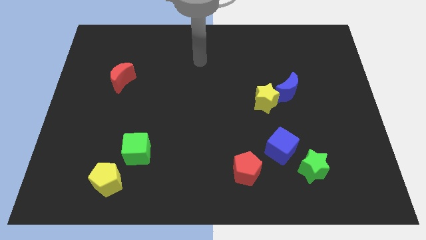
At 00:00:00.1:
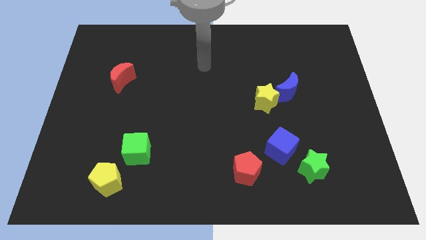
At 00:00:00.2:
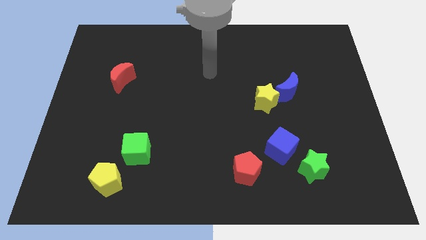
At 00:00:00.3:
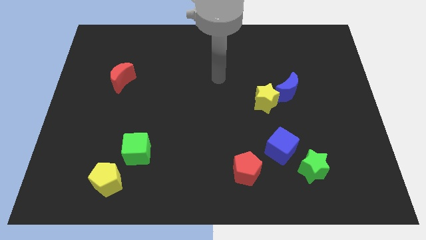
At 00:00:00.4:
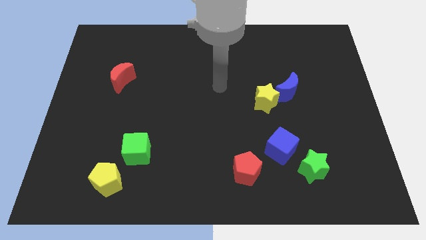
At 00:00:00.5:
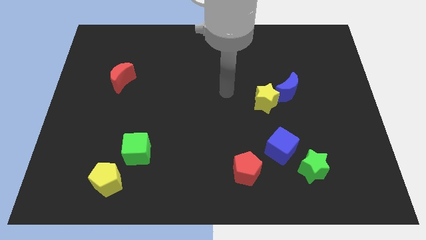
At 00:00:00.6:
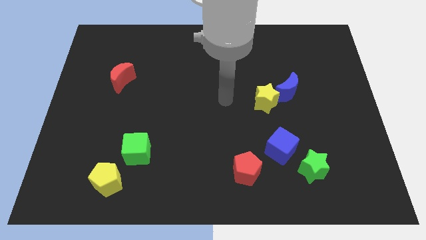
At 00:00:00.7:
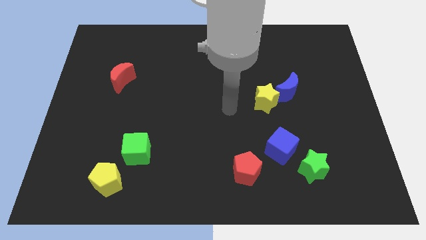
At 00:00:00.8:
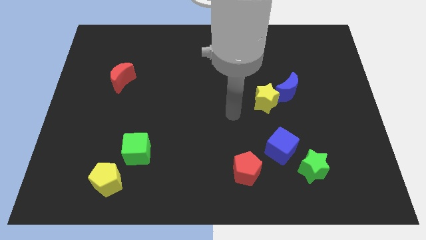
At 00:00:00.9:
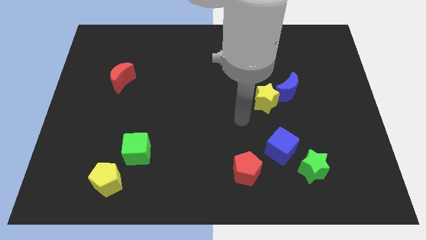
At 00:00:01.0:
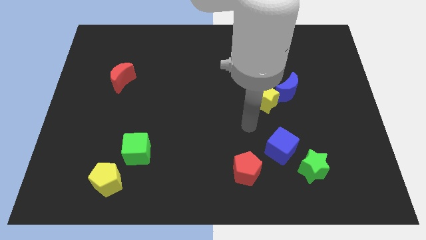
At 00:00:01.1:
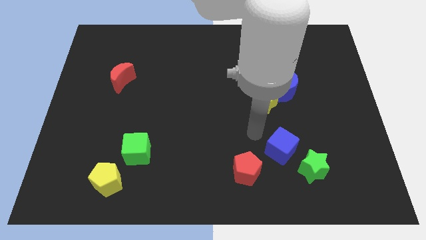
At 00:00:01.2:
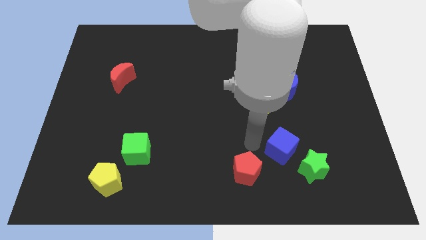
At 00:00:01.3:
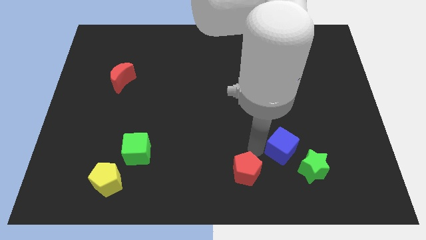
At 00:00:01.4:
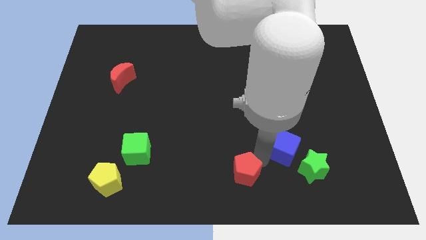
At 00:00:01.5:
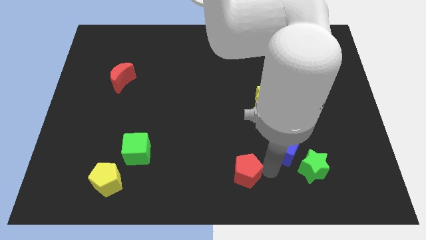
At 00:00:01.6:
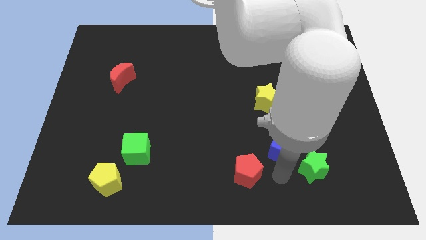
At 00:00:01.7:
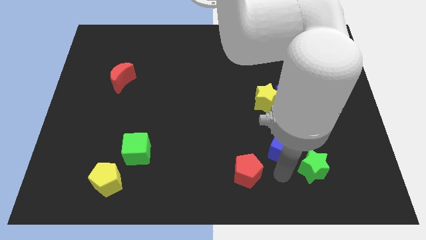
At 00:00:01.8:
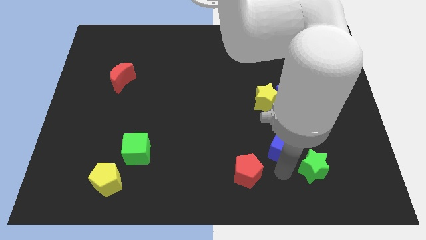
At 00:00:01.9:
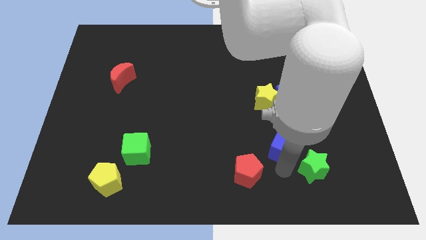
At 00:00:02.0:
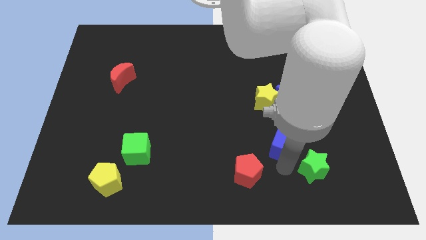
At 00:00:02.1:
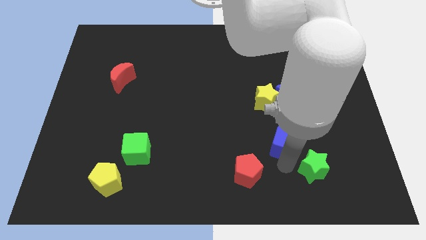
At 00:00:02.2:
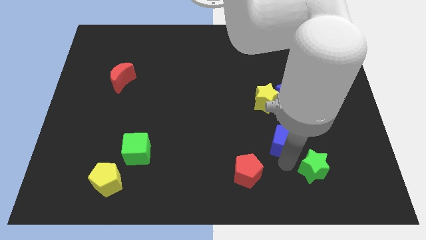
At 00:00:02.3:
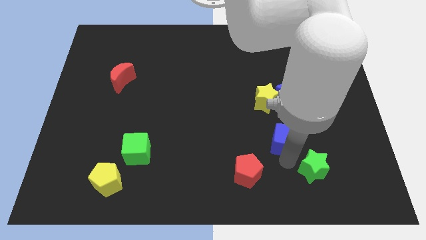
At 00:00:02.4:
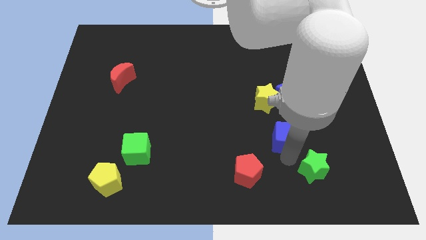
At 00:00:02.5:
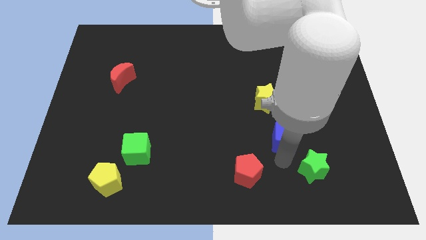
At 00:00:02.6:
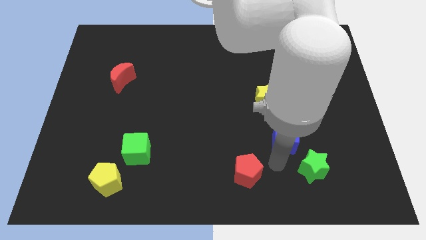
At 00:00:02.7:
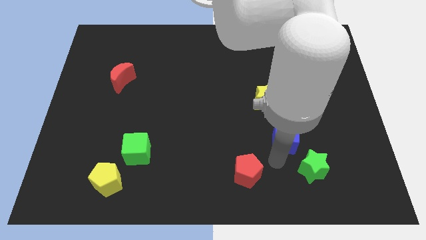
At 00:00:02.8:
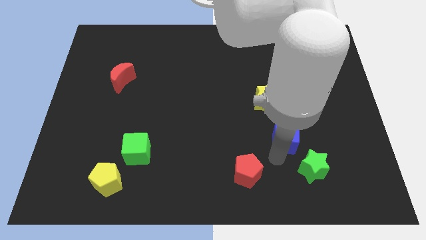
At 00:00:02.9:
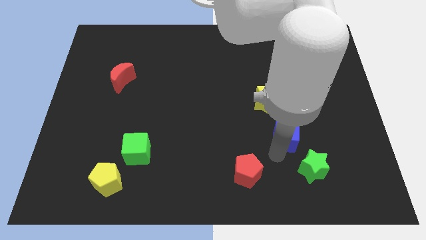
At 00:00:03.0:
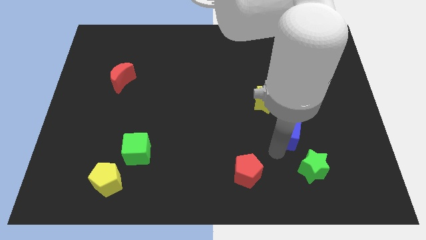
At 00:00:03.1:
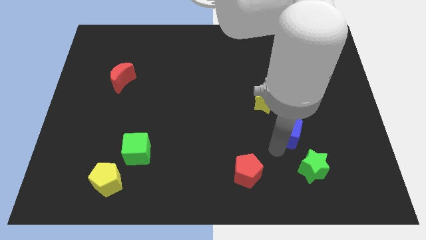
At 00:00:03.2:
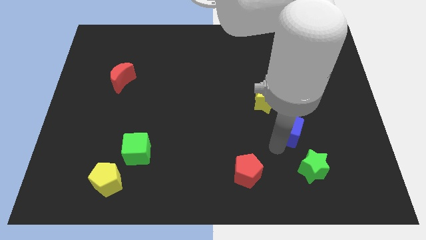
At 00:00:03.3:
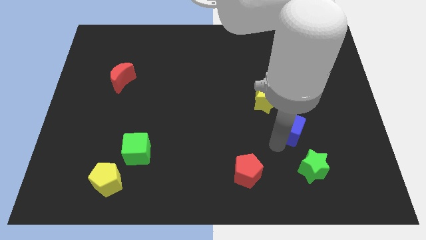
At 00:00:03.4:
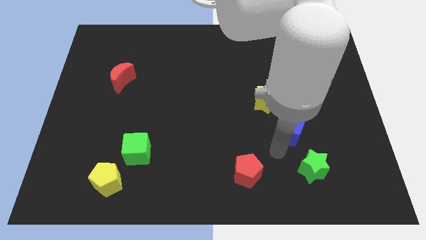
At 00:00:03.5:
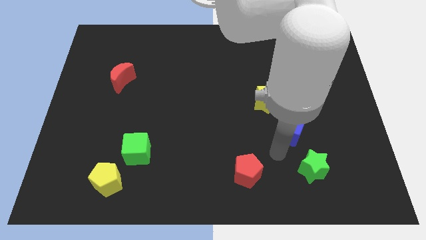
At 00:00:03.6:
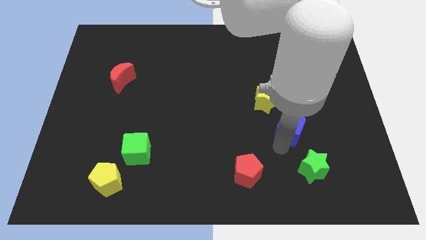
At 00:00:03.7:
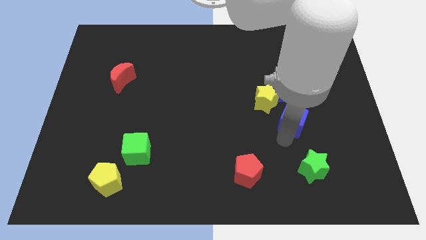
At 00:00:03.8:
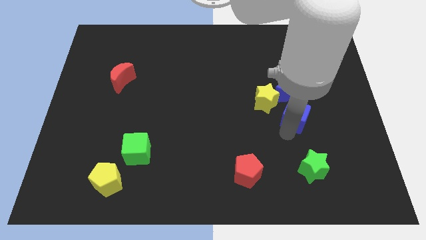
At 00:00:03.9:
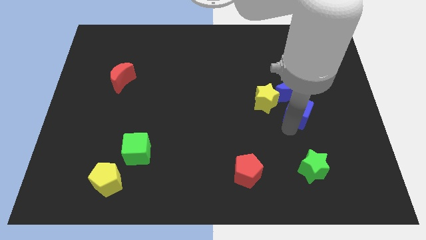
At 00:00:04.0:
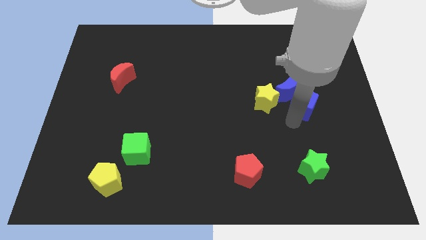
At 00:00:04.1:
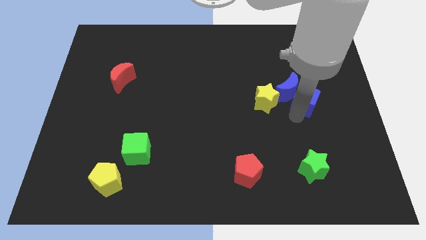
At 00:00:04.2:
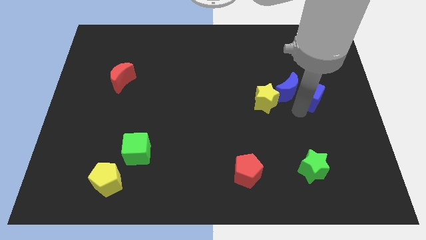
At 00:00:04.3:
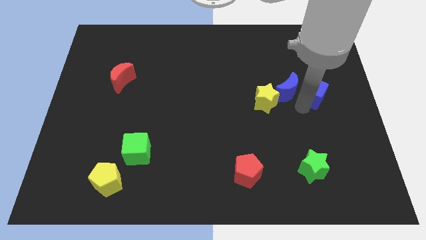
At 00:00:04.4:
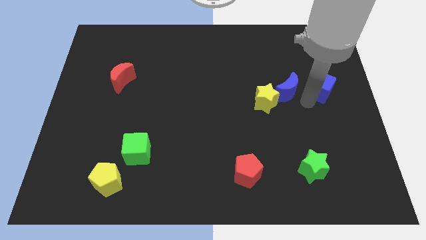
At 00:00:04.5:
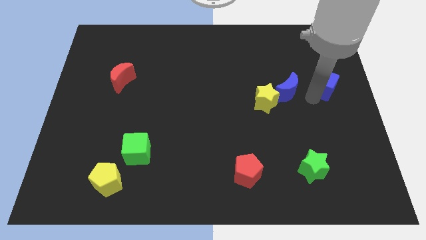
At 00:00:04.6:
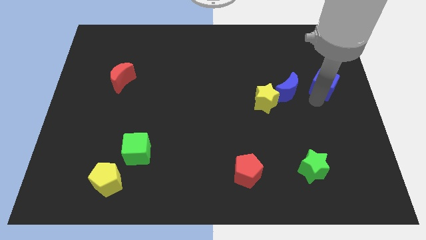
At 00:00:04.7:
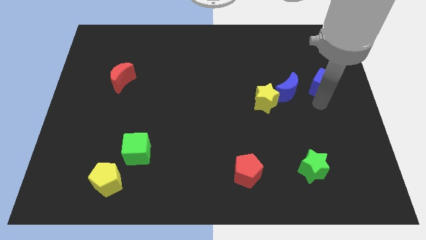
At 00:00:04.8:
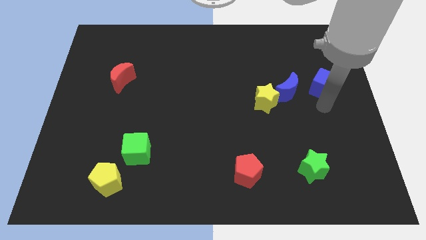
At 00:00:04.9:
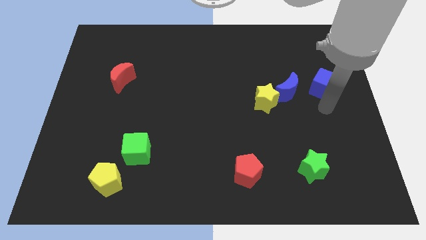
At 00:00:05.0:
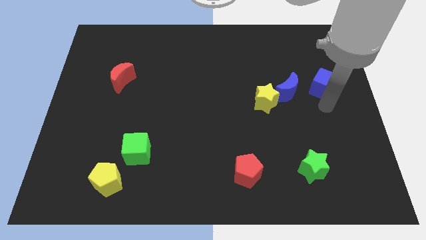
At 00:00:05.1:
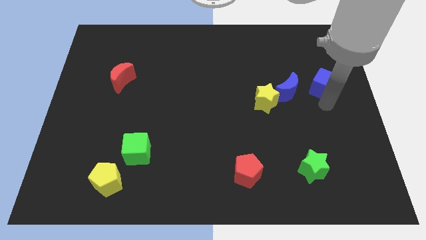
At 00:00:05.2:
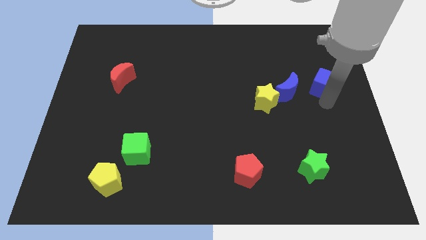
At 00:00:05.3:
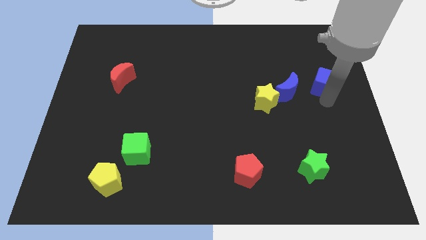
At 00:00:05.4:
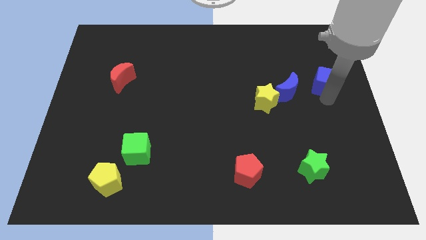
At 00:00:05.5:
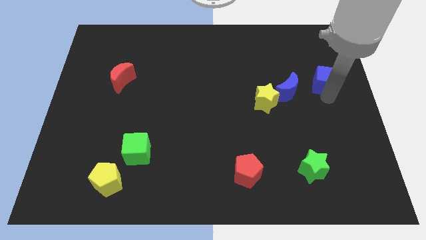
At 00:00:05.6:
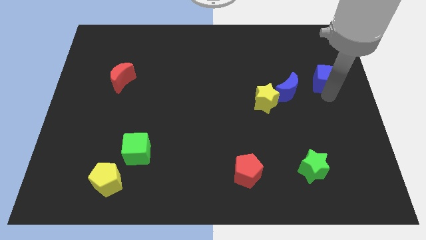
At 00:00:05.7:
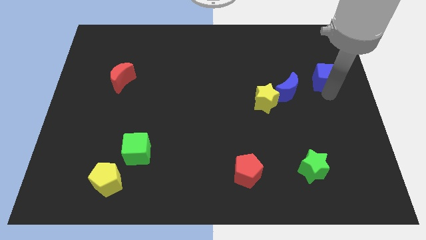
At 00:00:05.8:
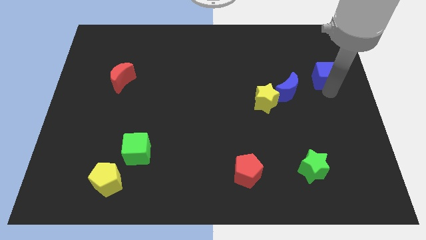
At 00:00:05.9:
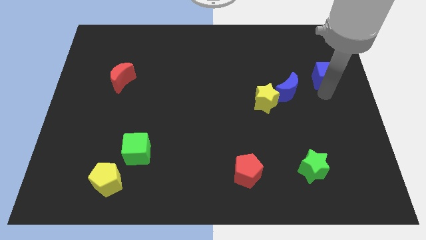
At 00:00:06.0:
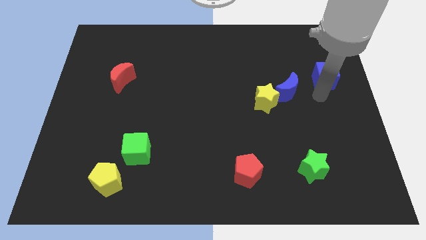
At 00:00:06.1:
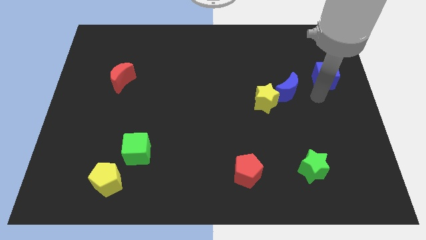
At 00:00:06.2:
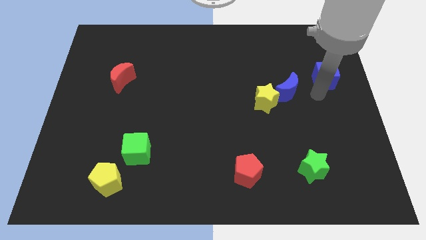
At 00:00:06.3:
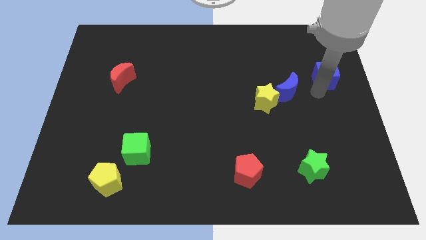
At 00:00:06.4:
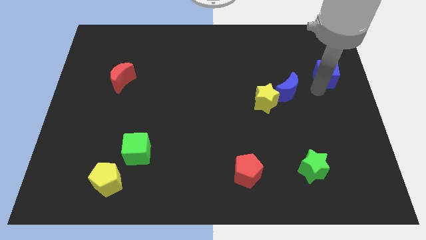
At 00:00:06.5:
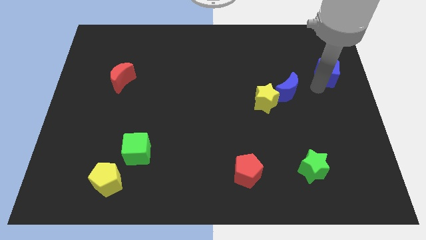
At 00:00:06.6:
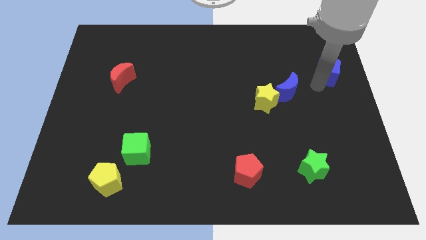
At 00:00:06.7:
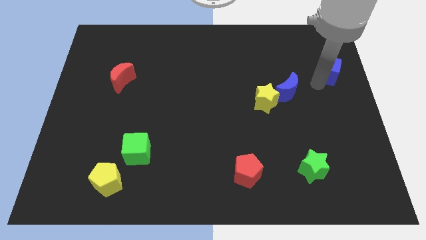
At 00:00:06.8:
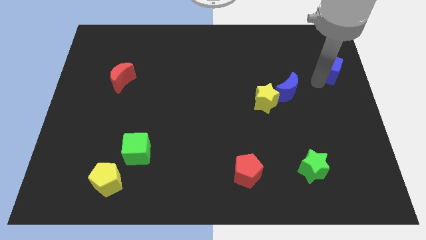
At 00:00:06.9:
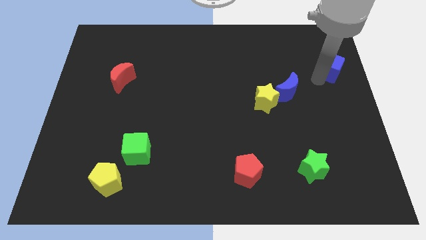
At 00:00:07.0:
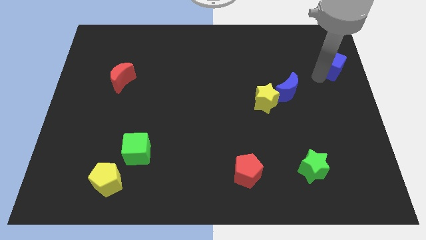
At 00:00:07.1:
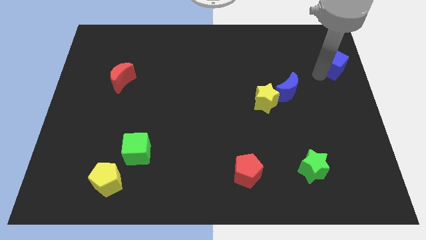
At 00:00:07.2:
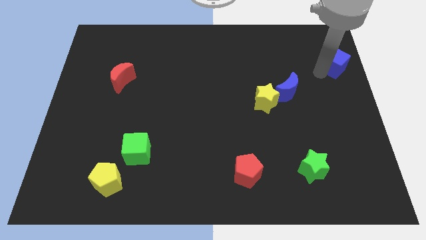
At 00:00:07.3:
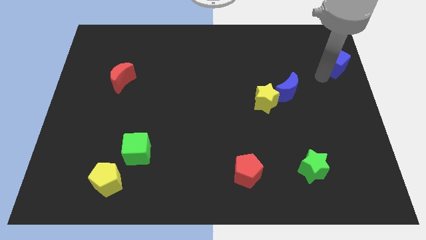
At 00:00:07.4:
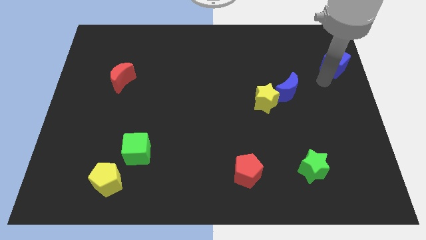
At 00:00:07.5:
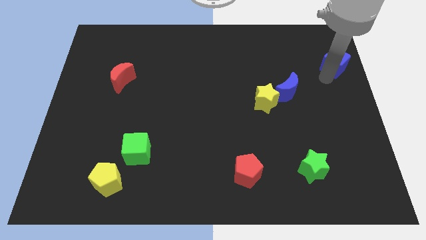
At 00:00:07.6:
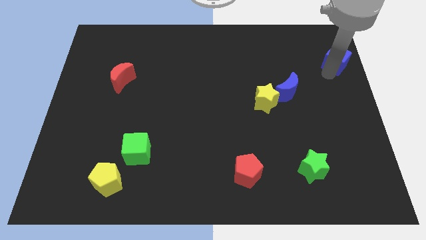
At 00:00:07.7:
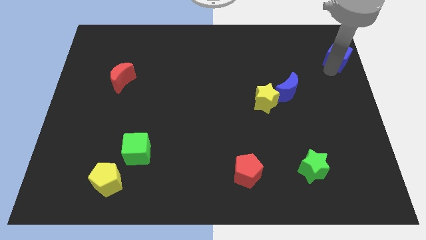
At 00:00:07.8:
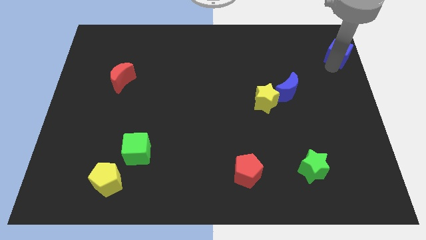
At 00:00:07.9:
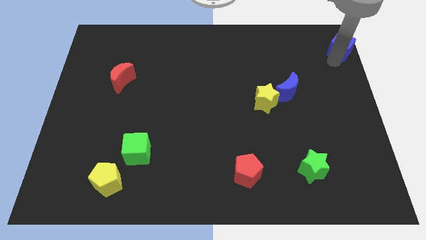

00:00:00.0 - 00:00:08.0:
put the blue cube to the top right

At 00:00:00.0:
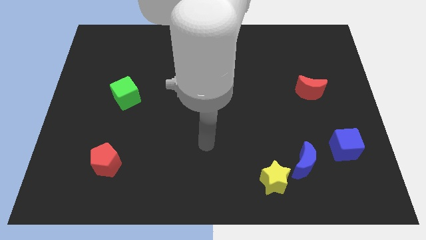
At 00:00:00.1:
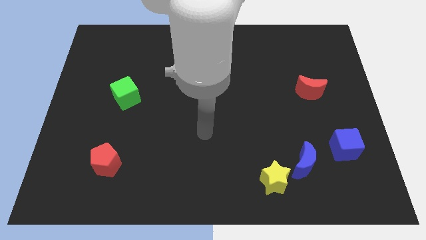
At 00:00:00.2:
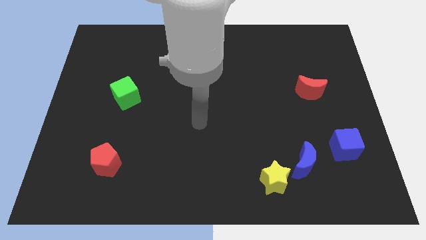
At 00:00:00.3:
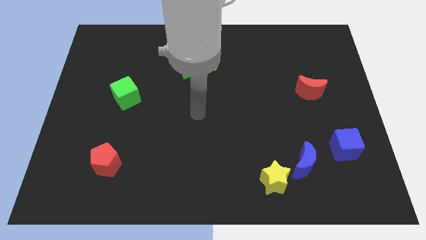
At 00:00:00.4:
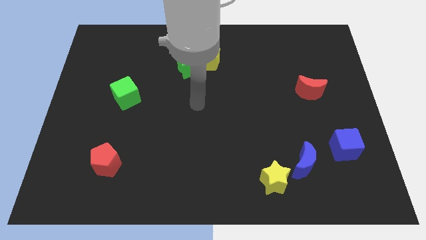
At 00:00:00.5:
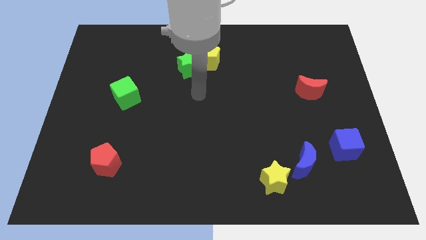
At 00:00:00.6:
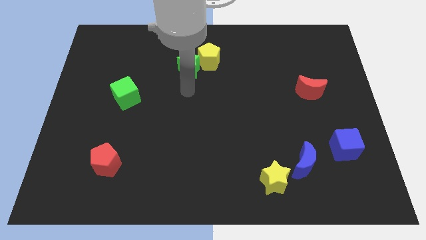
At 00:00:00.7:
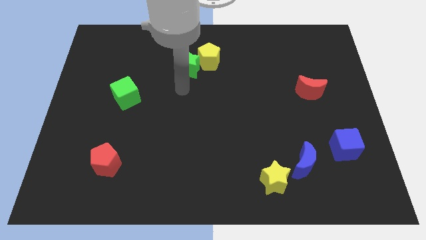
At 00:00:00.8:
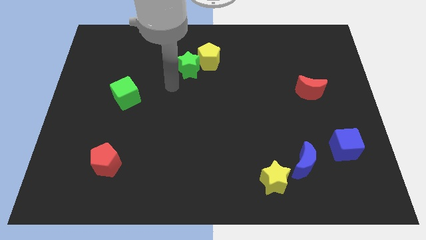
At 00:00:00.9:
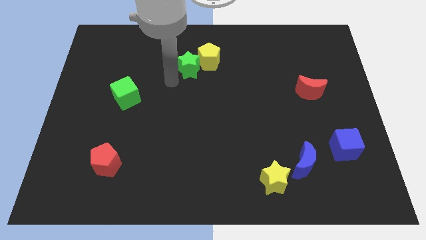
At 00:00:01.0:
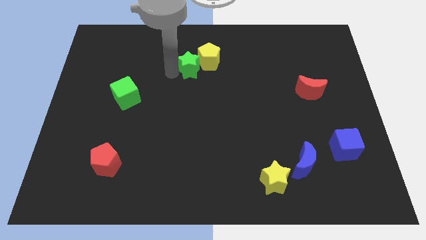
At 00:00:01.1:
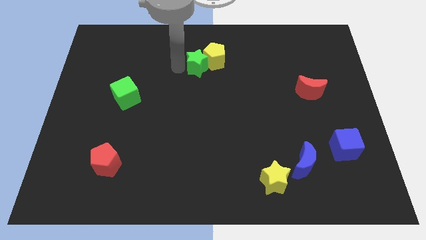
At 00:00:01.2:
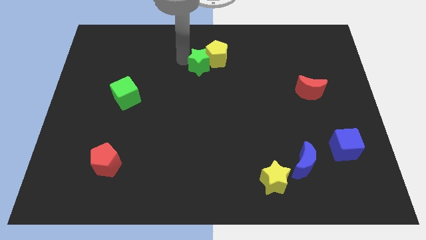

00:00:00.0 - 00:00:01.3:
put the yellow pentagon to the towards your base
